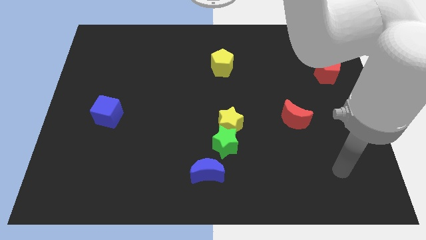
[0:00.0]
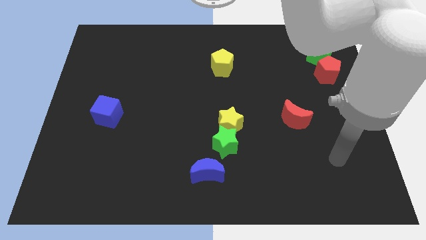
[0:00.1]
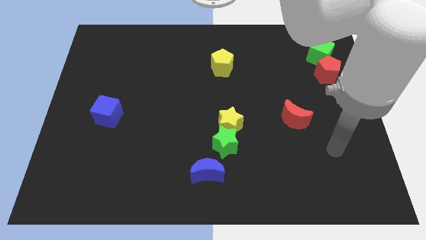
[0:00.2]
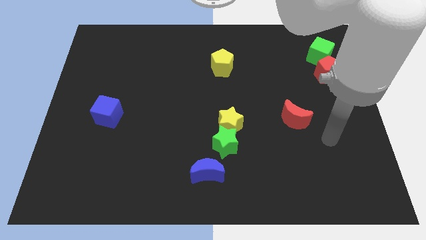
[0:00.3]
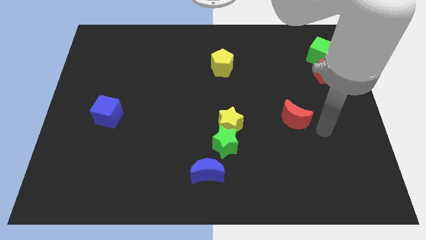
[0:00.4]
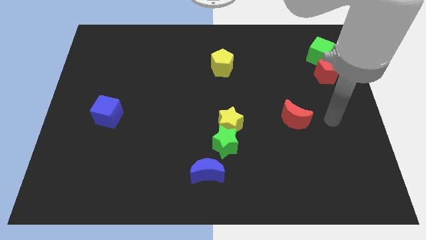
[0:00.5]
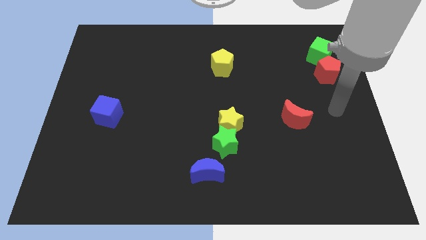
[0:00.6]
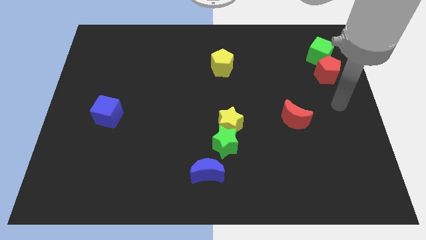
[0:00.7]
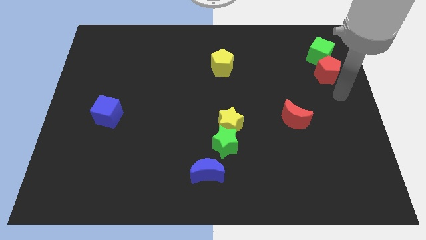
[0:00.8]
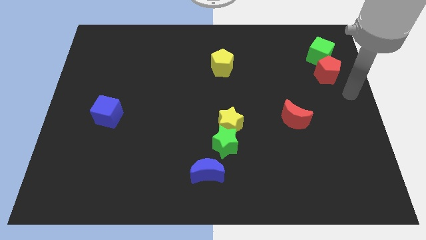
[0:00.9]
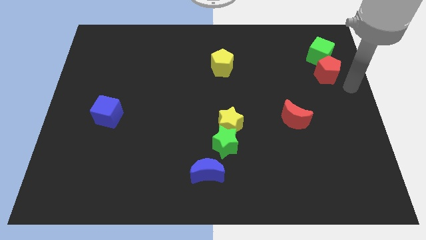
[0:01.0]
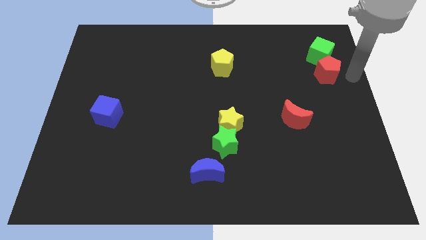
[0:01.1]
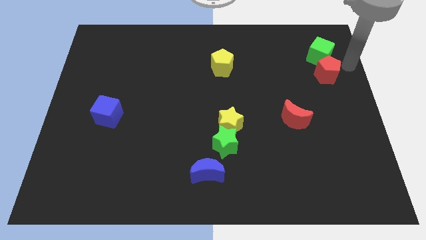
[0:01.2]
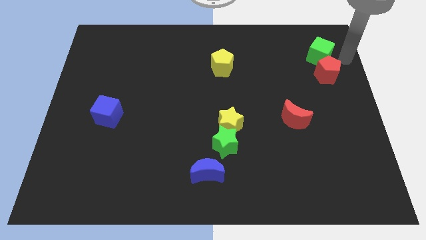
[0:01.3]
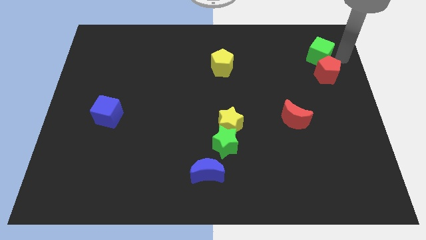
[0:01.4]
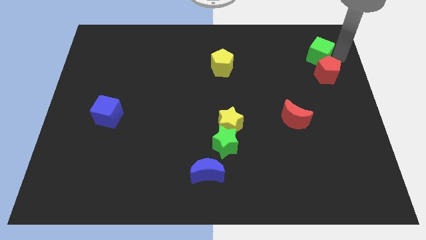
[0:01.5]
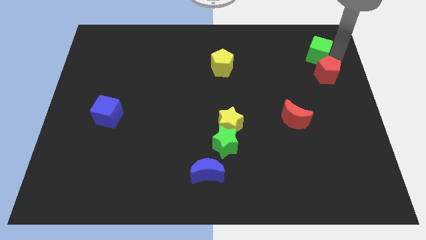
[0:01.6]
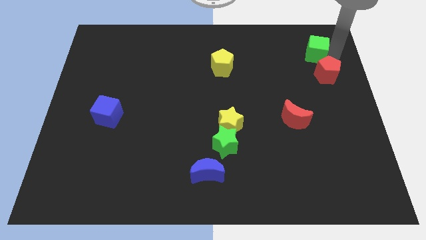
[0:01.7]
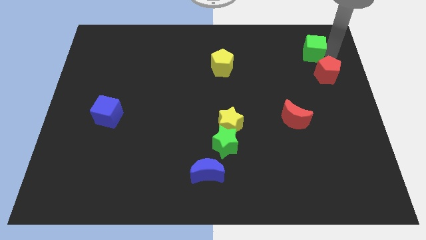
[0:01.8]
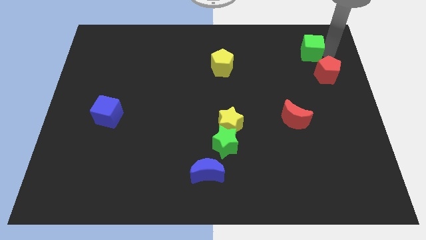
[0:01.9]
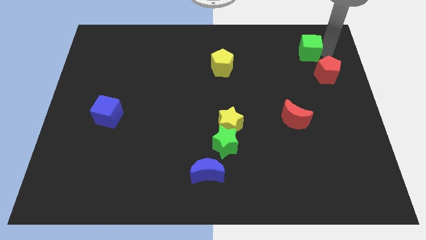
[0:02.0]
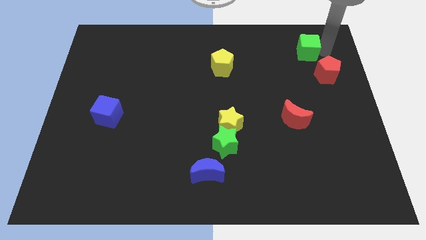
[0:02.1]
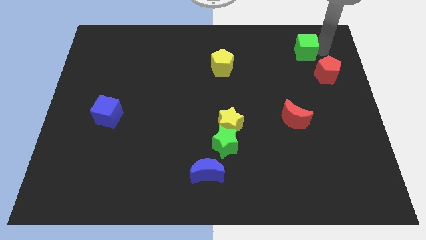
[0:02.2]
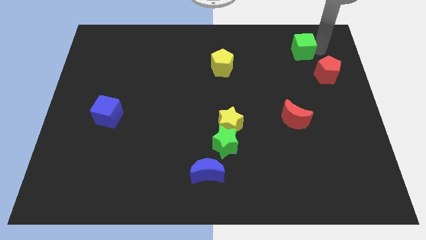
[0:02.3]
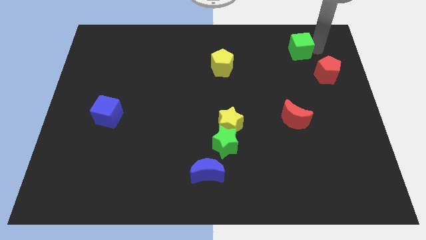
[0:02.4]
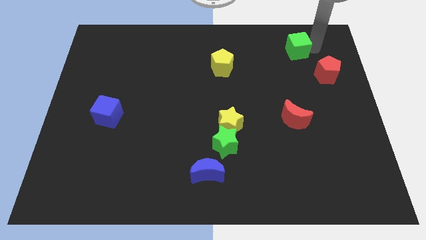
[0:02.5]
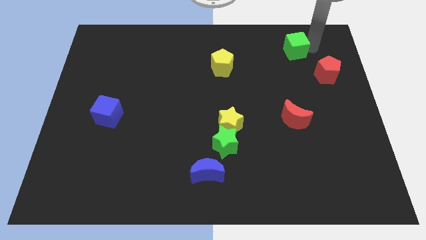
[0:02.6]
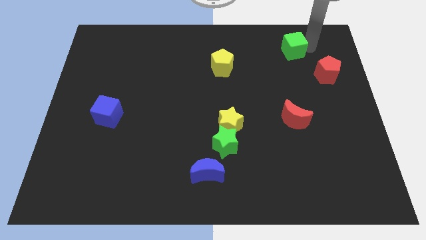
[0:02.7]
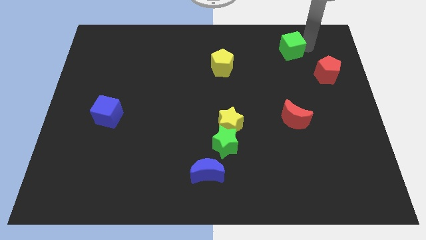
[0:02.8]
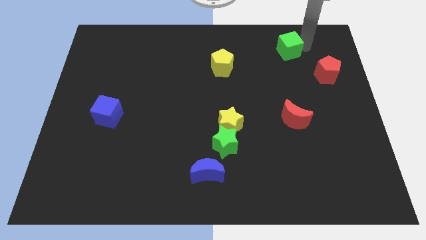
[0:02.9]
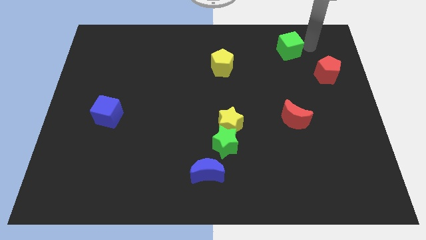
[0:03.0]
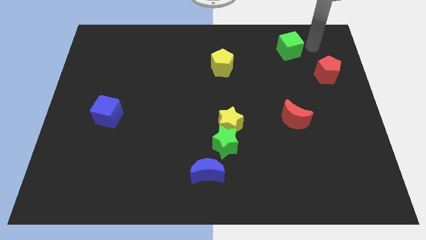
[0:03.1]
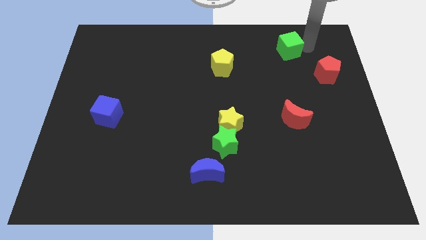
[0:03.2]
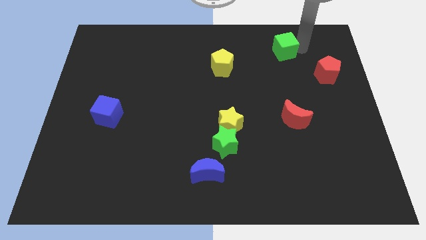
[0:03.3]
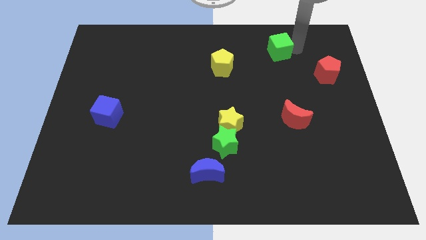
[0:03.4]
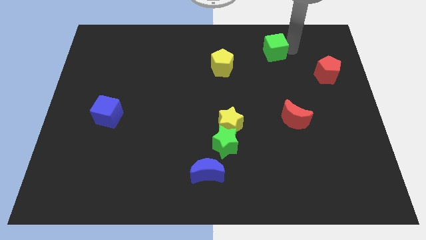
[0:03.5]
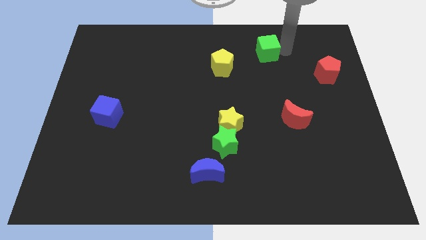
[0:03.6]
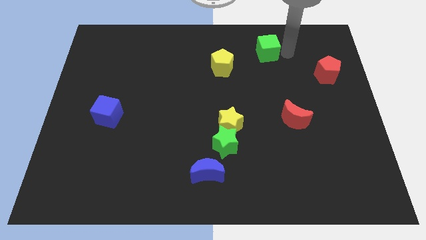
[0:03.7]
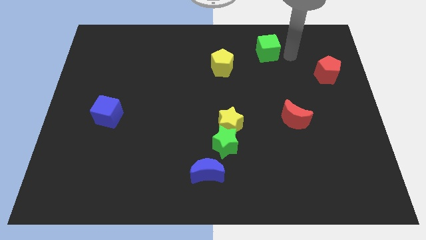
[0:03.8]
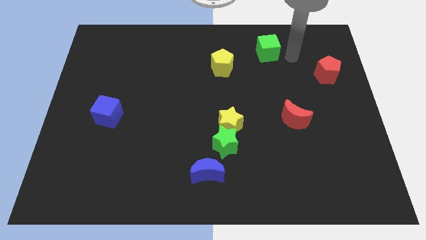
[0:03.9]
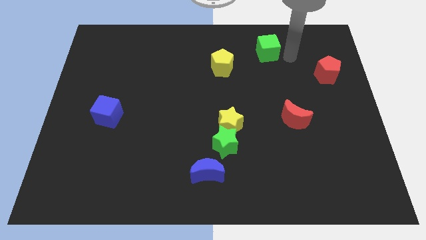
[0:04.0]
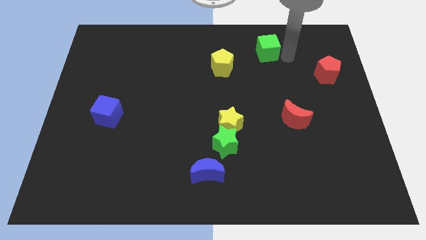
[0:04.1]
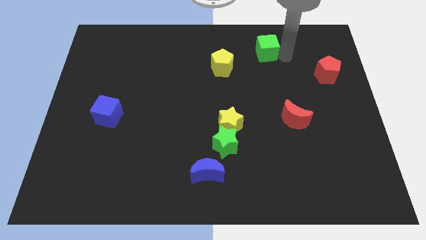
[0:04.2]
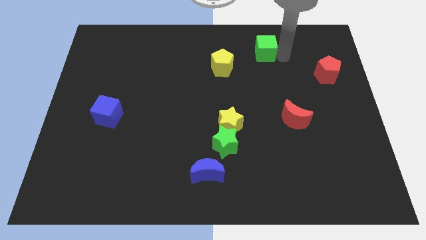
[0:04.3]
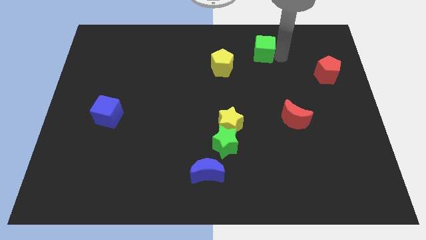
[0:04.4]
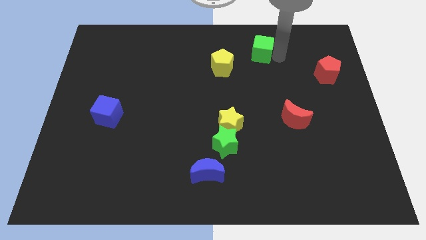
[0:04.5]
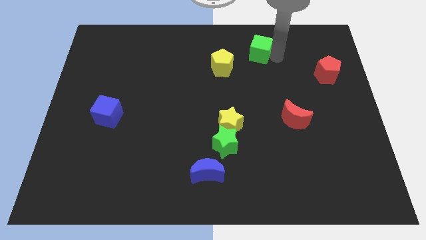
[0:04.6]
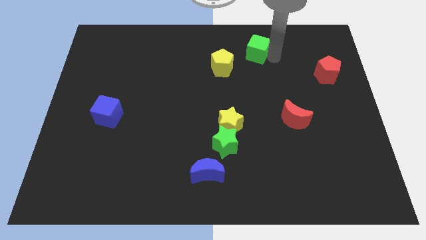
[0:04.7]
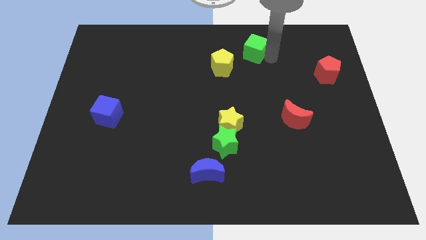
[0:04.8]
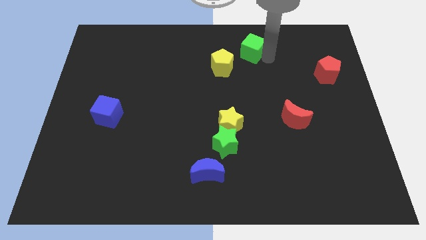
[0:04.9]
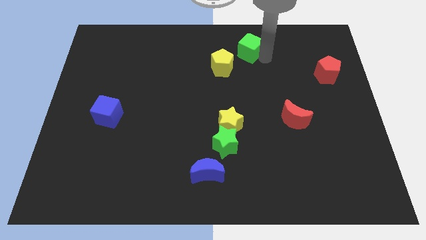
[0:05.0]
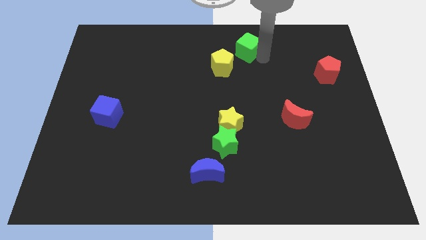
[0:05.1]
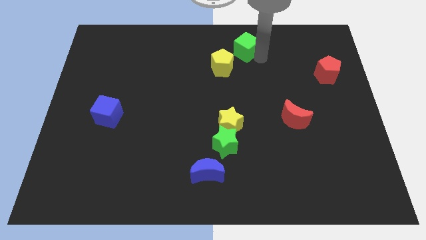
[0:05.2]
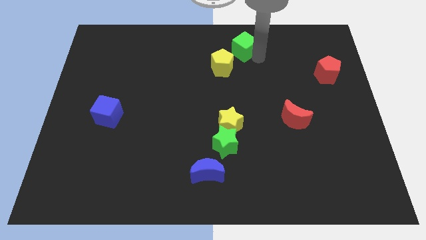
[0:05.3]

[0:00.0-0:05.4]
push the green cube to the top side

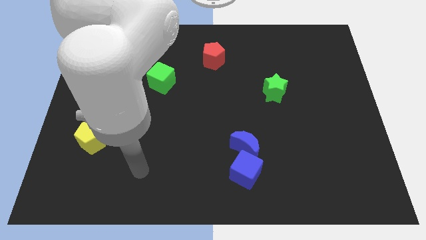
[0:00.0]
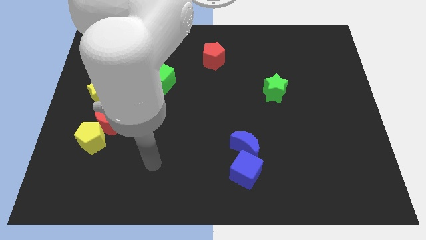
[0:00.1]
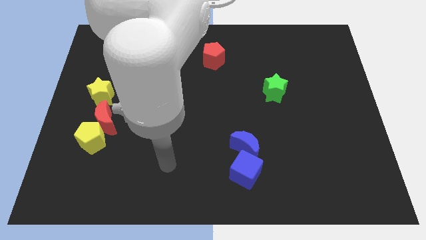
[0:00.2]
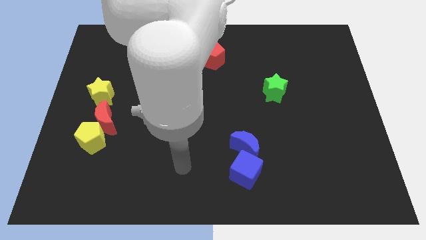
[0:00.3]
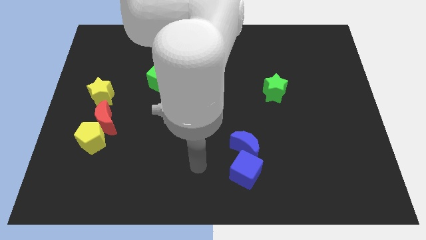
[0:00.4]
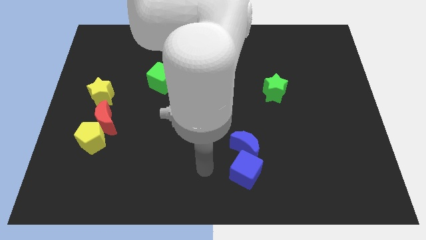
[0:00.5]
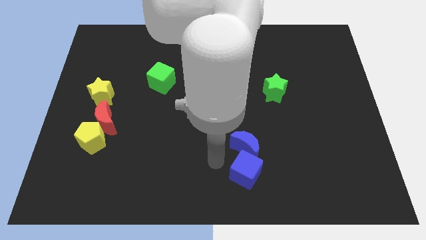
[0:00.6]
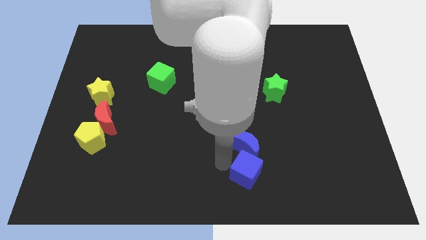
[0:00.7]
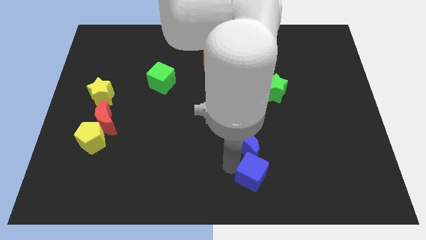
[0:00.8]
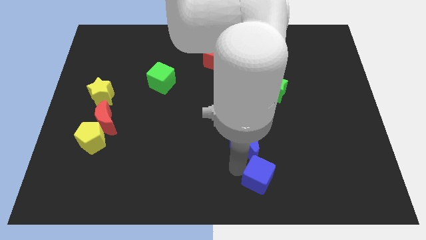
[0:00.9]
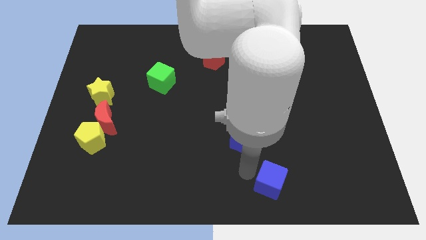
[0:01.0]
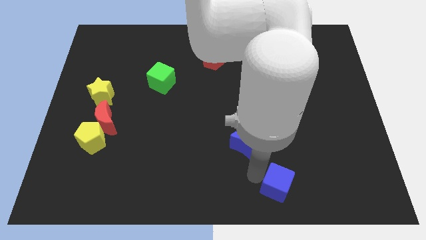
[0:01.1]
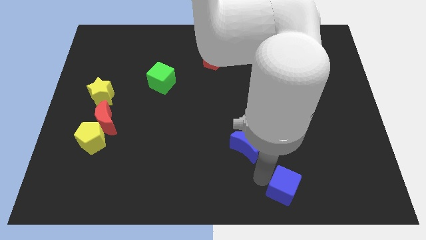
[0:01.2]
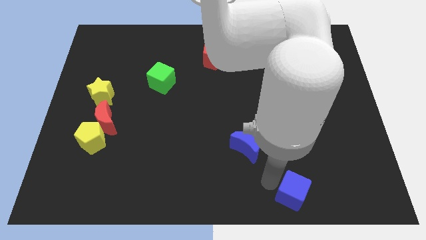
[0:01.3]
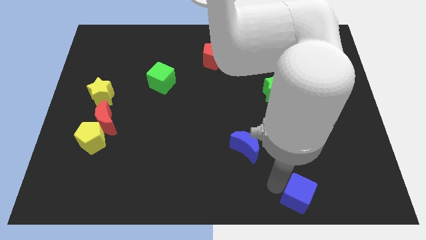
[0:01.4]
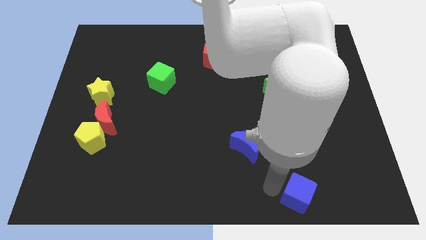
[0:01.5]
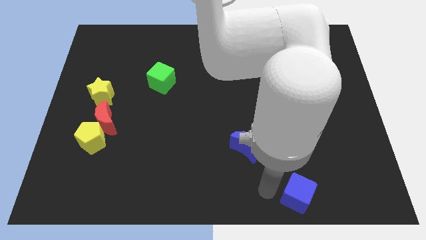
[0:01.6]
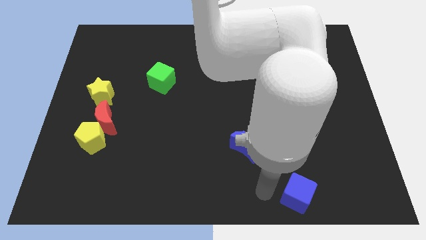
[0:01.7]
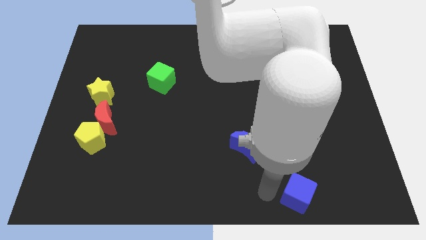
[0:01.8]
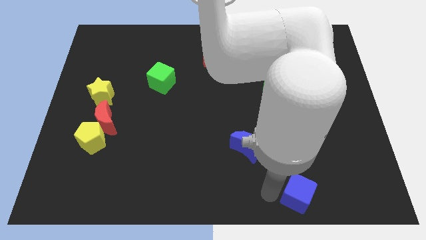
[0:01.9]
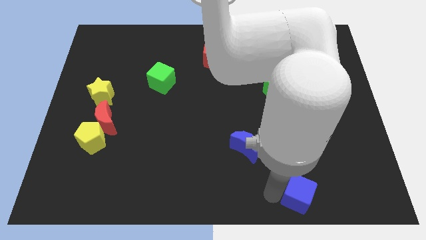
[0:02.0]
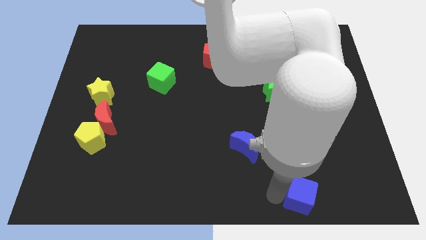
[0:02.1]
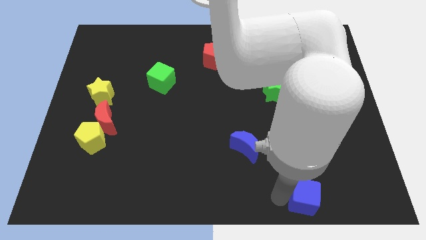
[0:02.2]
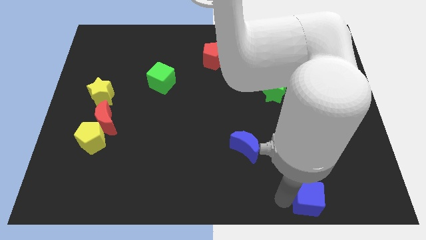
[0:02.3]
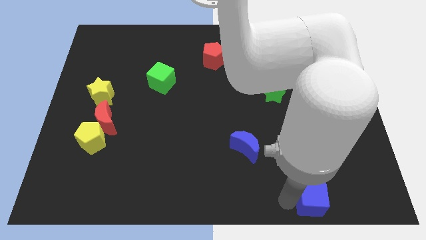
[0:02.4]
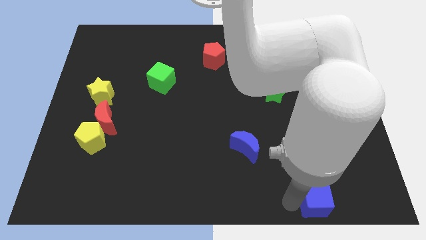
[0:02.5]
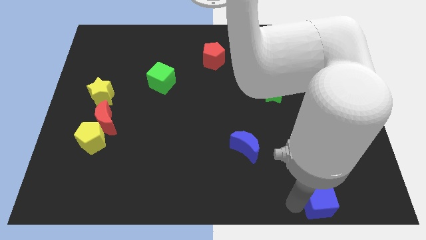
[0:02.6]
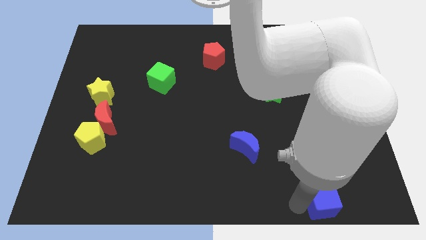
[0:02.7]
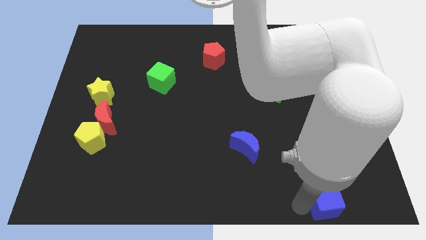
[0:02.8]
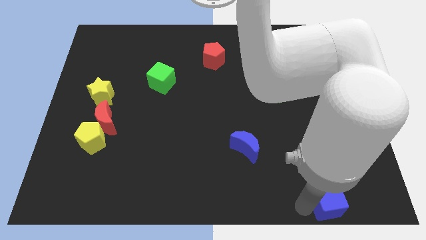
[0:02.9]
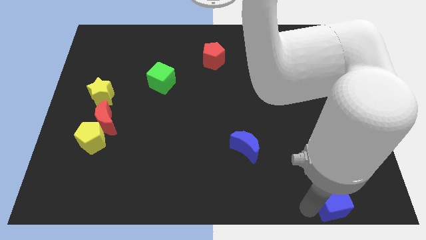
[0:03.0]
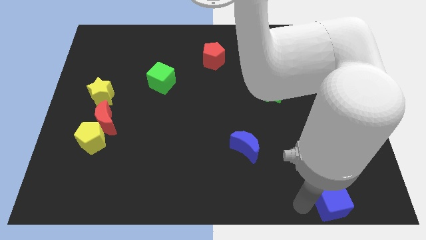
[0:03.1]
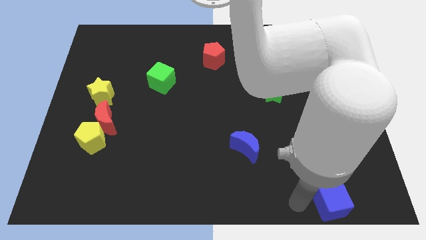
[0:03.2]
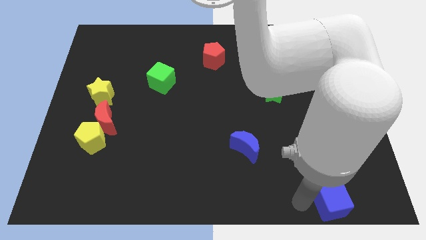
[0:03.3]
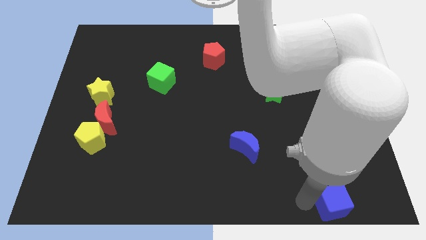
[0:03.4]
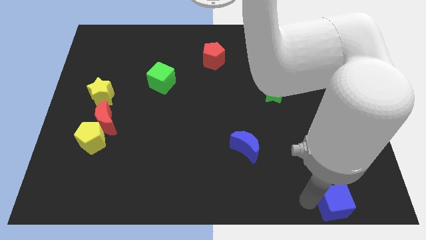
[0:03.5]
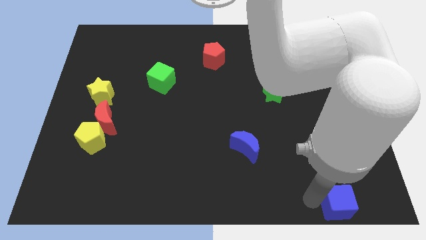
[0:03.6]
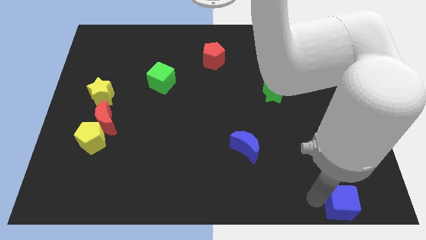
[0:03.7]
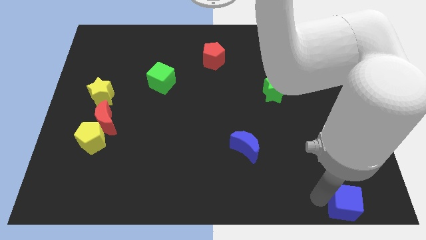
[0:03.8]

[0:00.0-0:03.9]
move the blue cube to the bottom right corner
